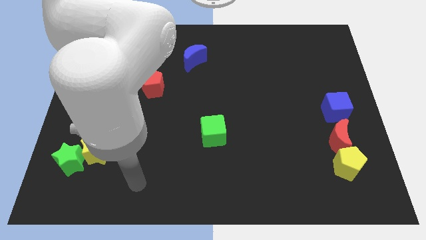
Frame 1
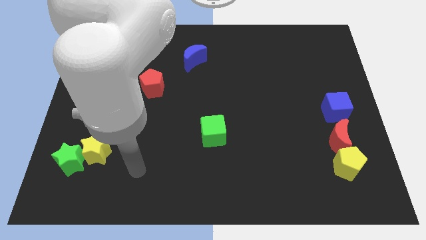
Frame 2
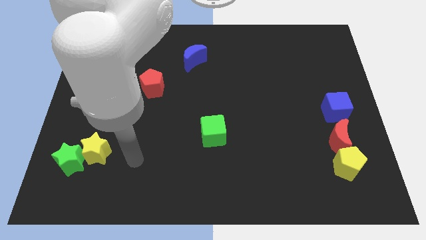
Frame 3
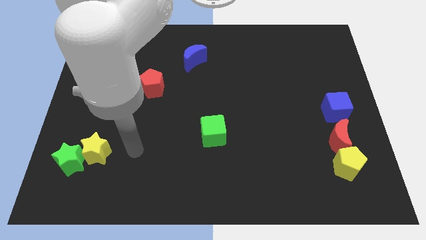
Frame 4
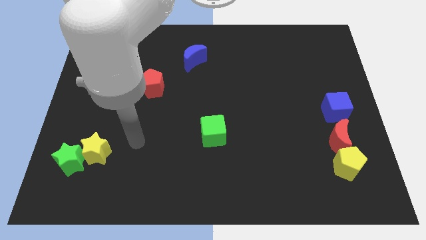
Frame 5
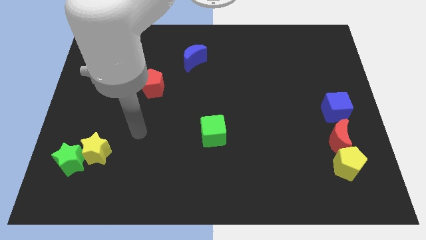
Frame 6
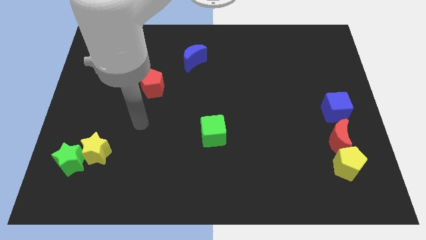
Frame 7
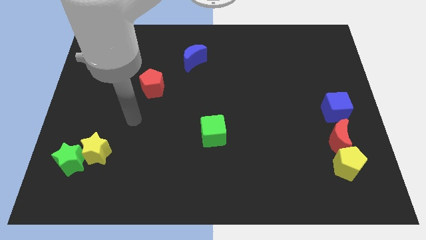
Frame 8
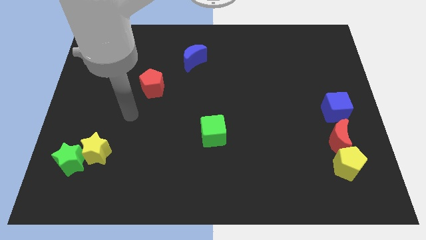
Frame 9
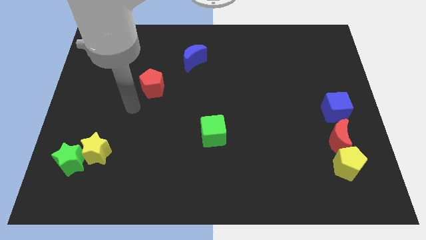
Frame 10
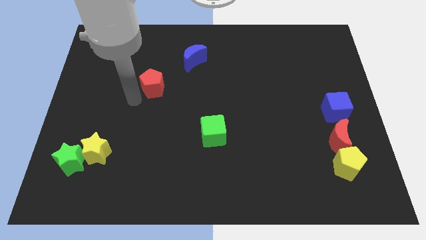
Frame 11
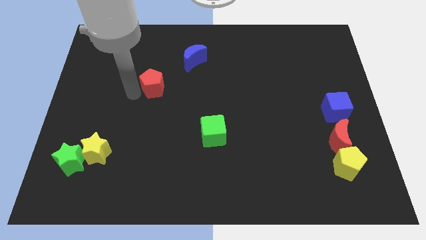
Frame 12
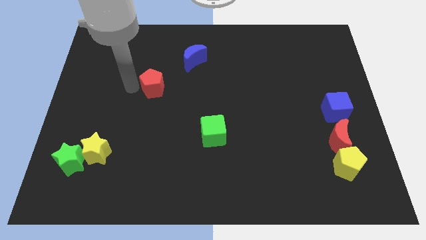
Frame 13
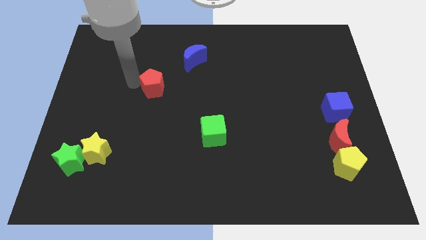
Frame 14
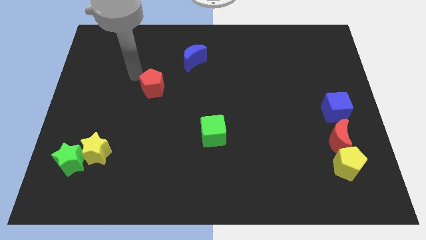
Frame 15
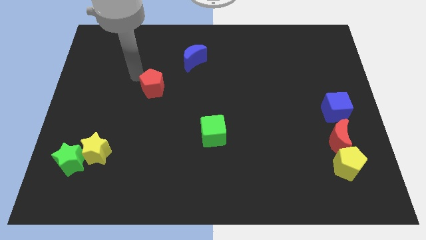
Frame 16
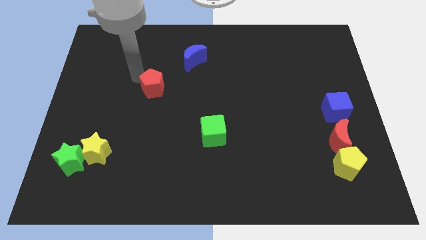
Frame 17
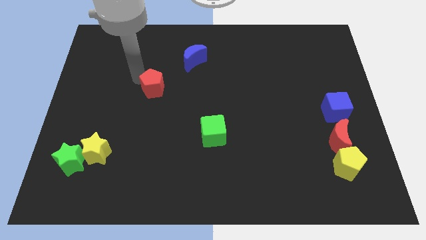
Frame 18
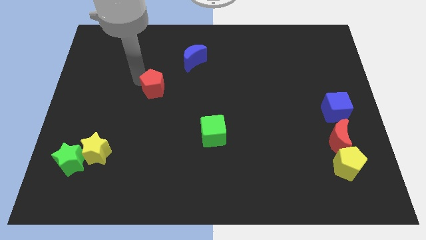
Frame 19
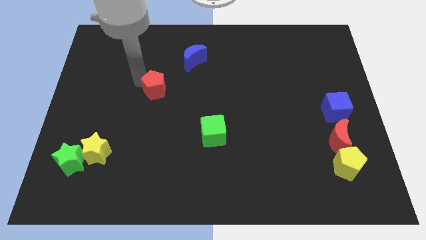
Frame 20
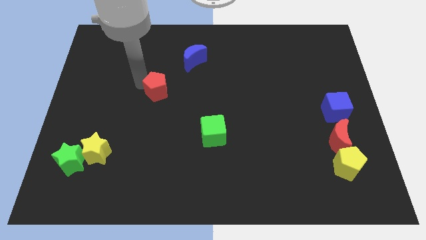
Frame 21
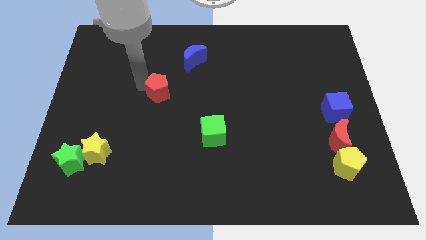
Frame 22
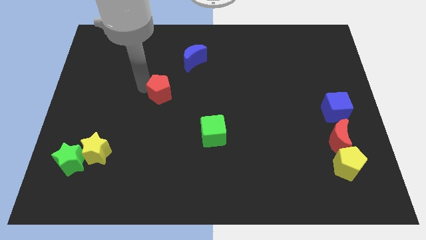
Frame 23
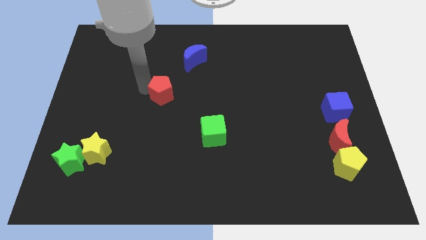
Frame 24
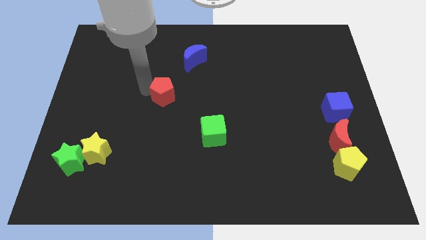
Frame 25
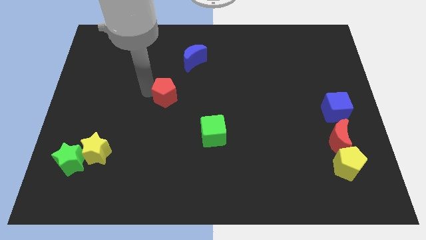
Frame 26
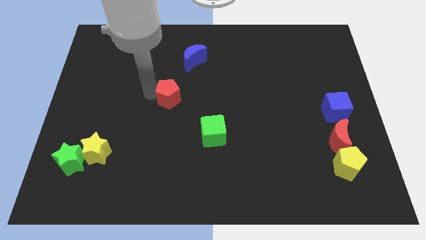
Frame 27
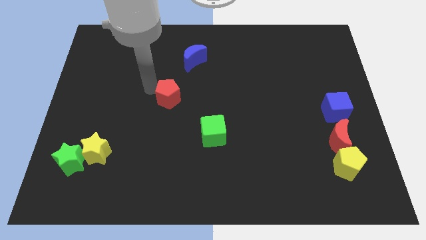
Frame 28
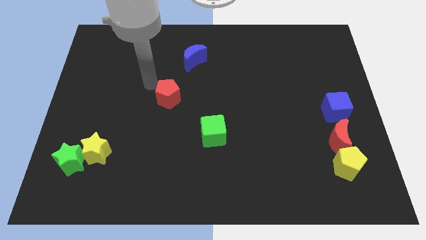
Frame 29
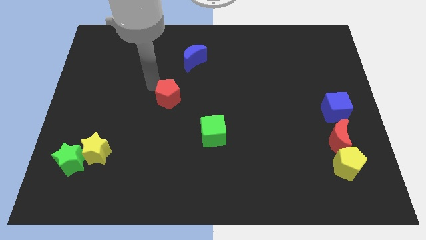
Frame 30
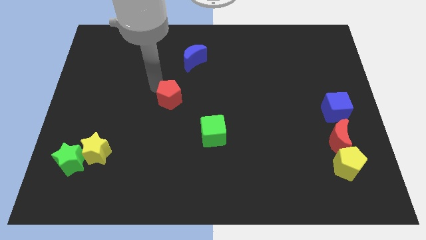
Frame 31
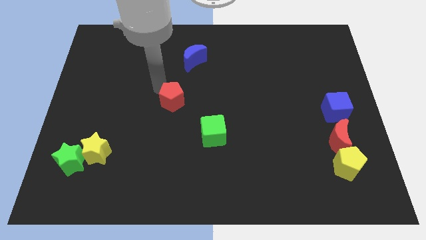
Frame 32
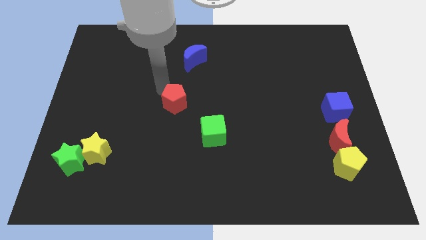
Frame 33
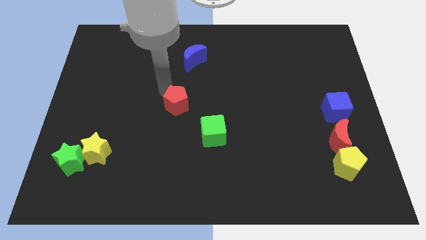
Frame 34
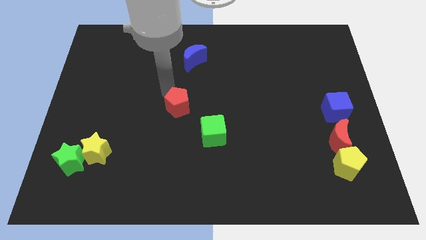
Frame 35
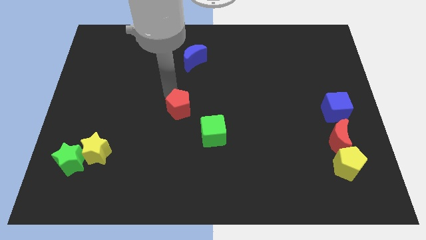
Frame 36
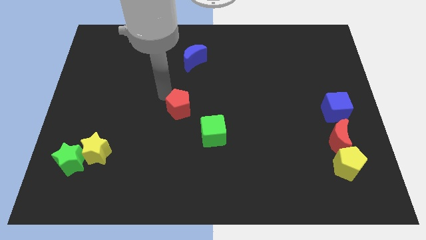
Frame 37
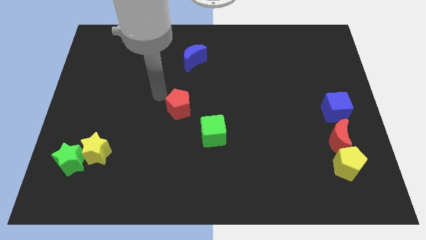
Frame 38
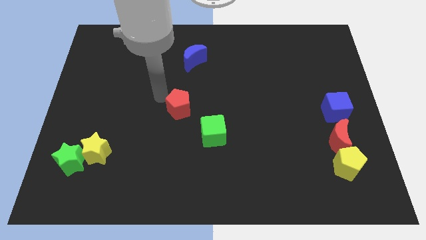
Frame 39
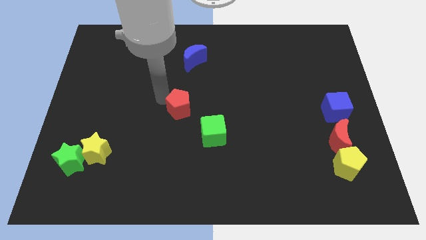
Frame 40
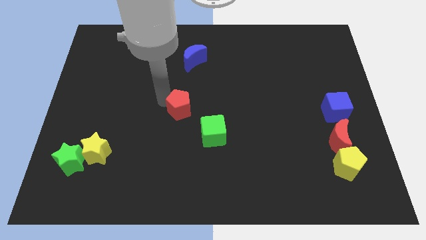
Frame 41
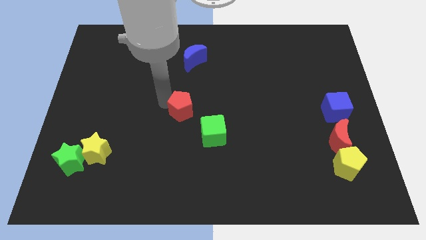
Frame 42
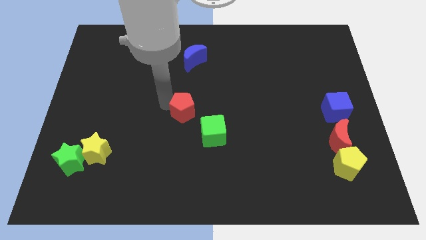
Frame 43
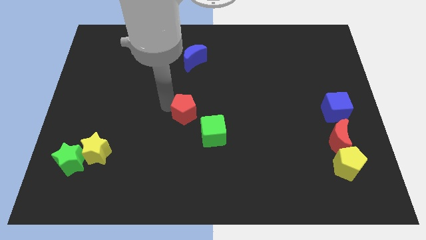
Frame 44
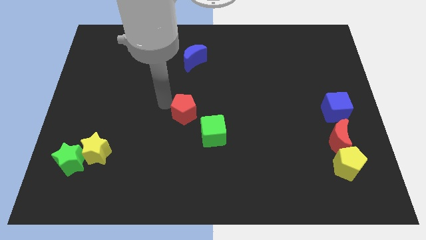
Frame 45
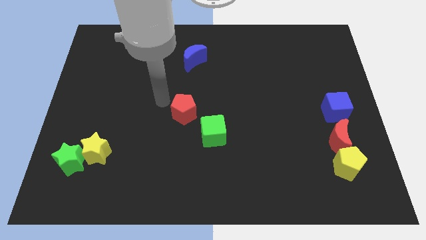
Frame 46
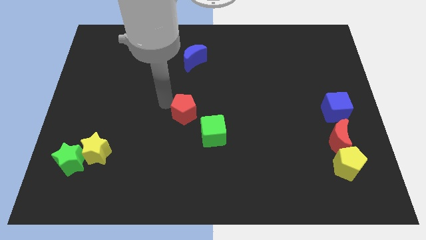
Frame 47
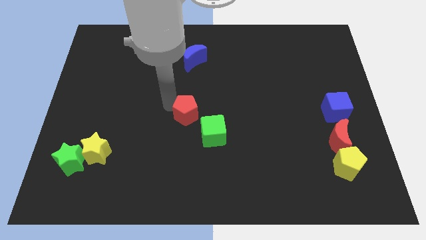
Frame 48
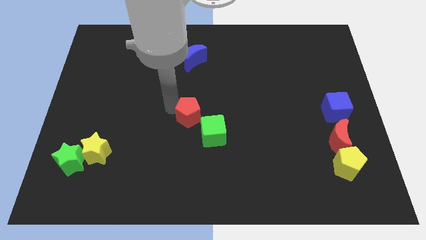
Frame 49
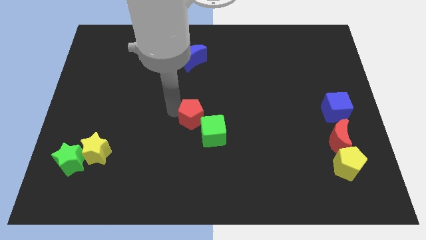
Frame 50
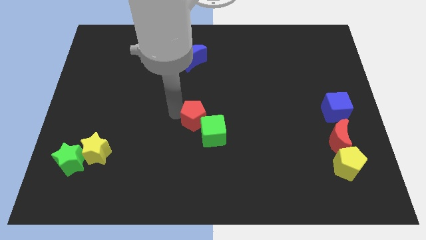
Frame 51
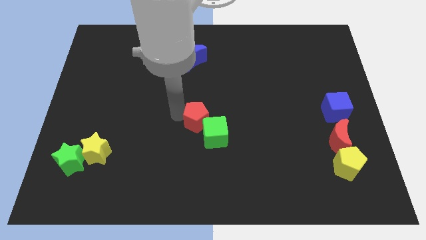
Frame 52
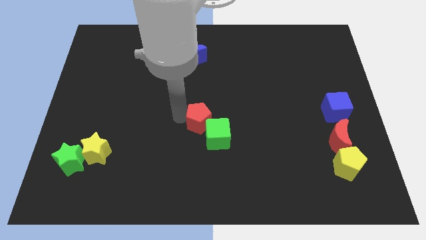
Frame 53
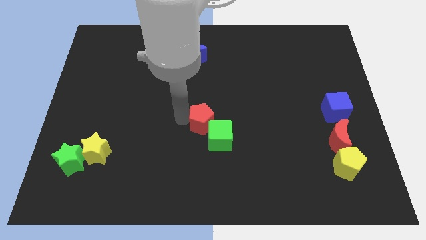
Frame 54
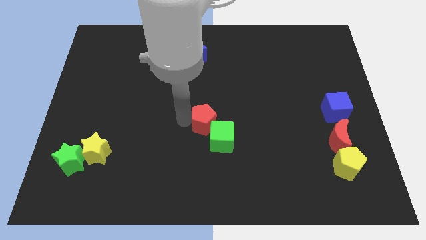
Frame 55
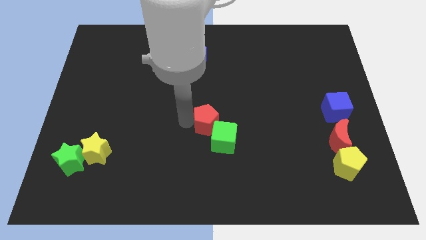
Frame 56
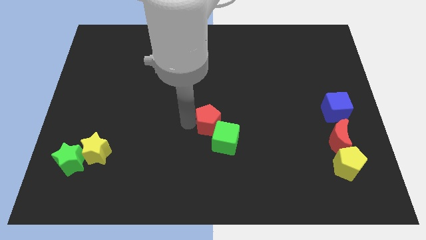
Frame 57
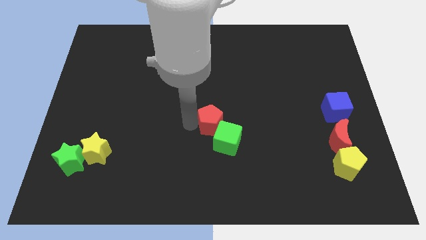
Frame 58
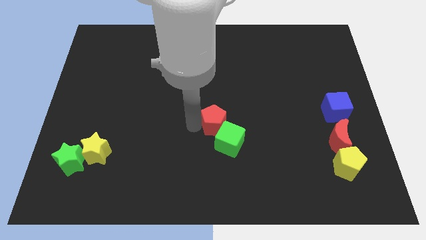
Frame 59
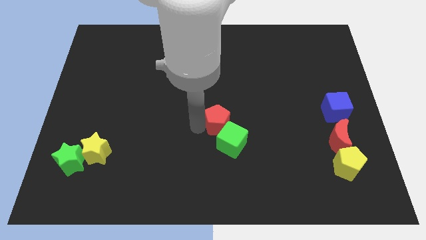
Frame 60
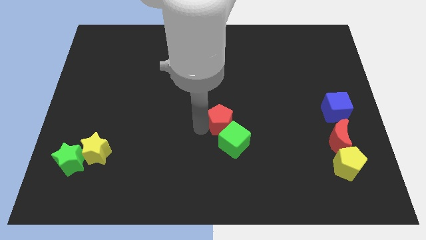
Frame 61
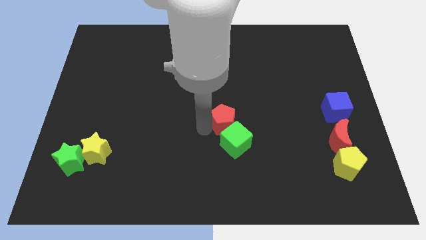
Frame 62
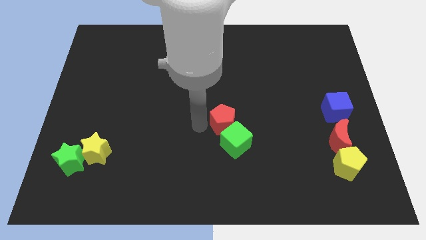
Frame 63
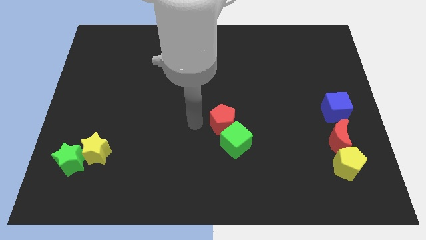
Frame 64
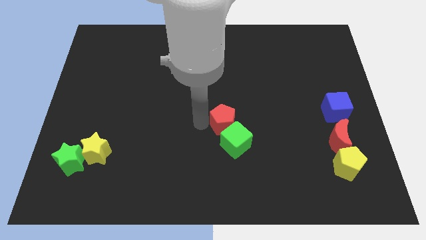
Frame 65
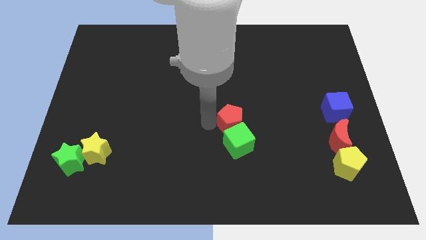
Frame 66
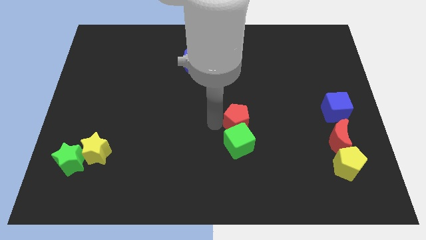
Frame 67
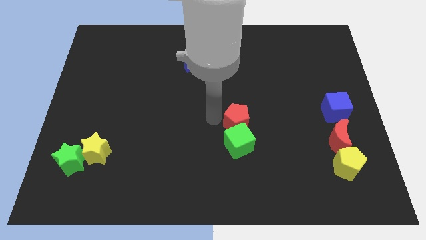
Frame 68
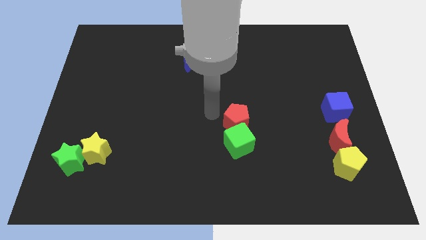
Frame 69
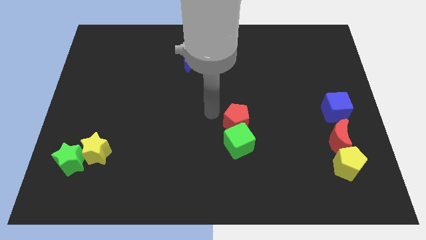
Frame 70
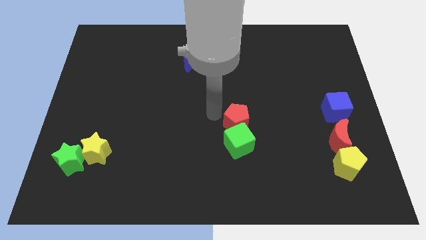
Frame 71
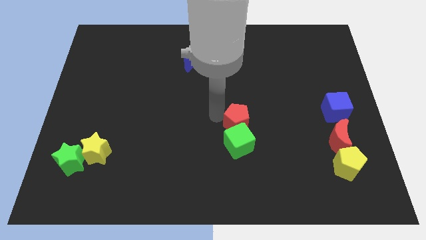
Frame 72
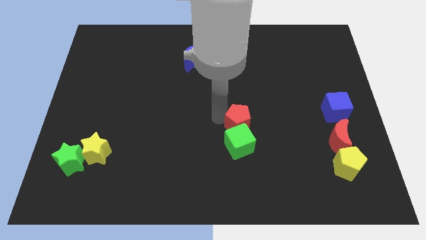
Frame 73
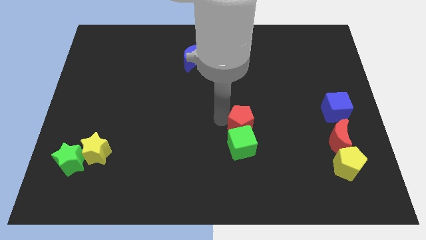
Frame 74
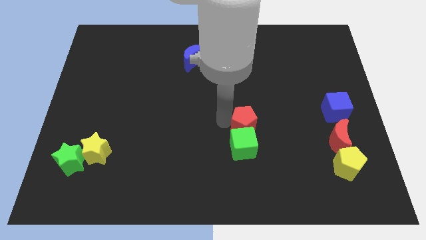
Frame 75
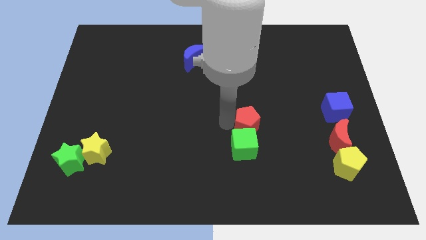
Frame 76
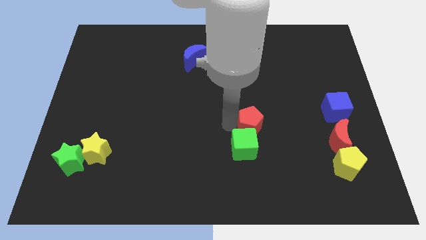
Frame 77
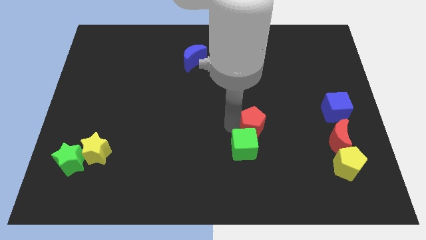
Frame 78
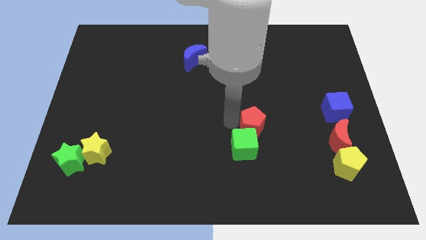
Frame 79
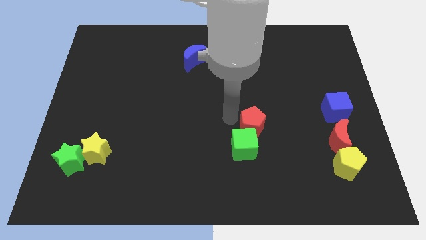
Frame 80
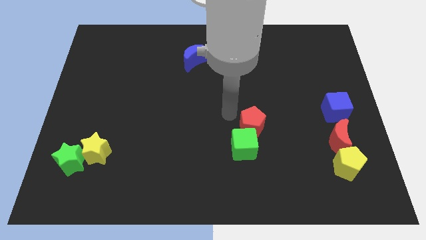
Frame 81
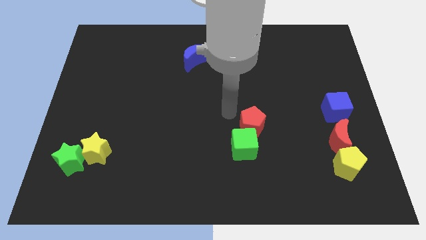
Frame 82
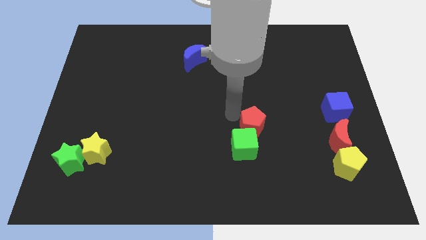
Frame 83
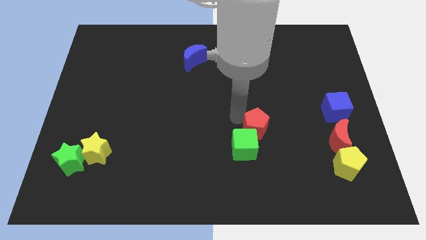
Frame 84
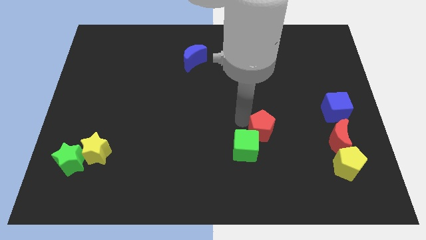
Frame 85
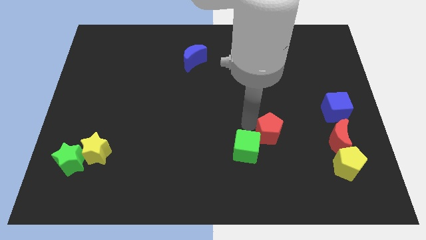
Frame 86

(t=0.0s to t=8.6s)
push the red pentagon to the left side of the red moon
